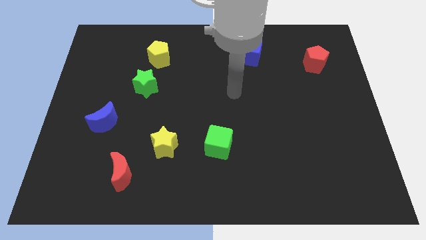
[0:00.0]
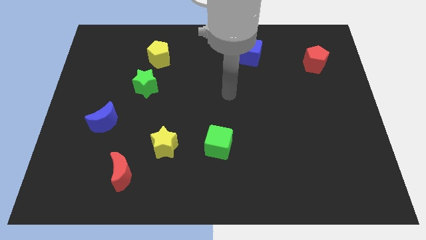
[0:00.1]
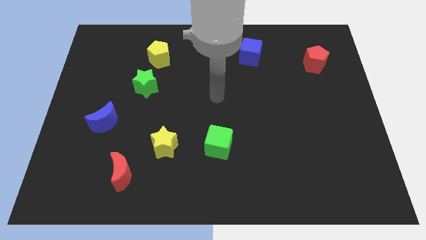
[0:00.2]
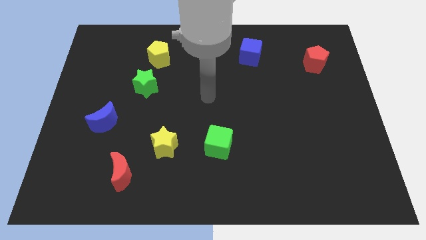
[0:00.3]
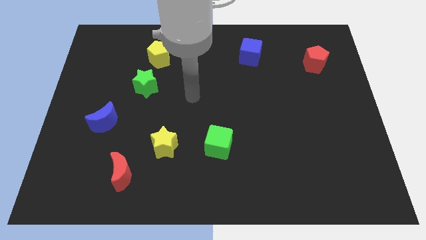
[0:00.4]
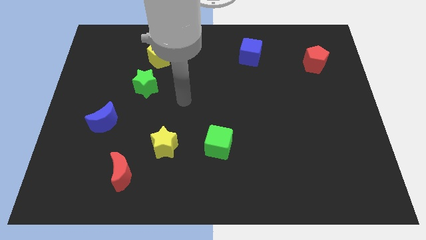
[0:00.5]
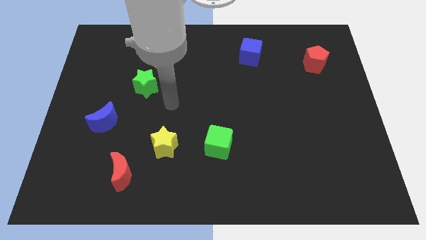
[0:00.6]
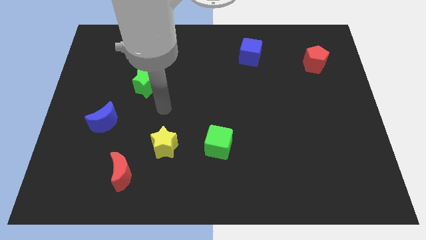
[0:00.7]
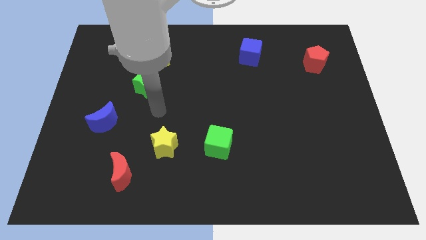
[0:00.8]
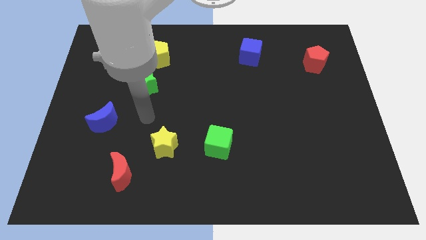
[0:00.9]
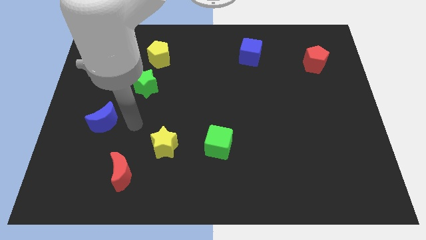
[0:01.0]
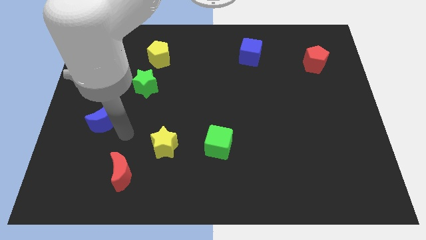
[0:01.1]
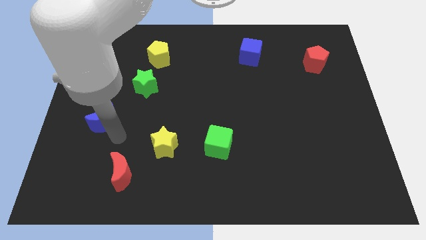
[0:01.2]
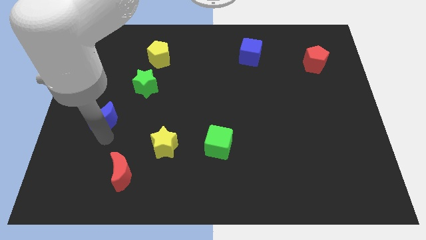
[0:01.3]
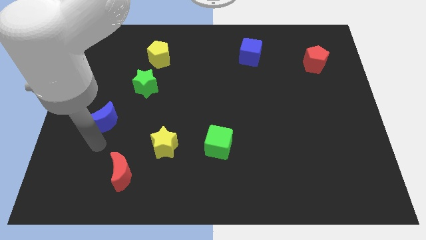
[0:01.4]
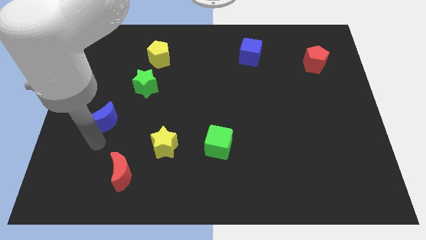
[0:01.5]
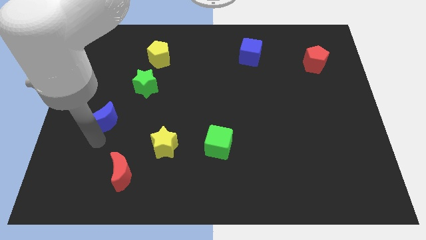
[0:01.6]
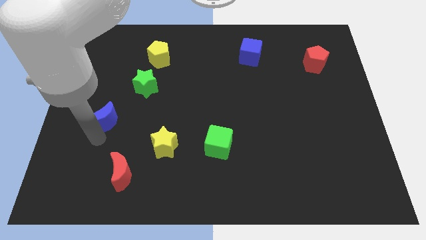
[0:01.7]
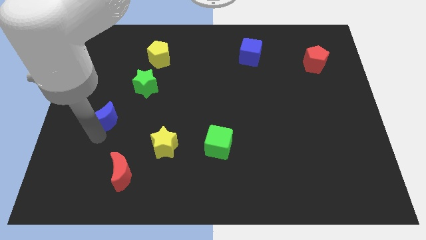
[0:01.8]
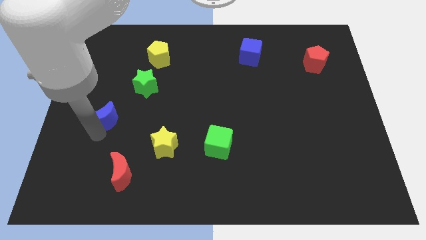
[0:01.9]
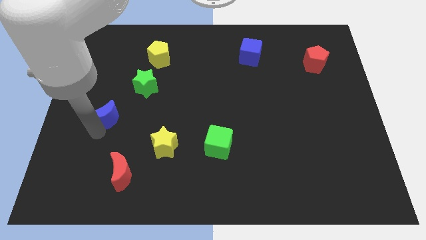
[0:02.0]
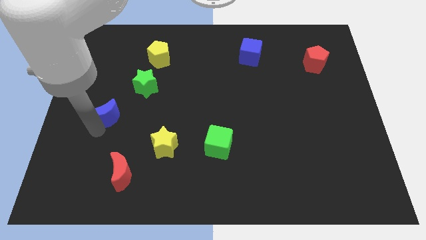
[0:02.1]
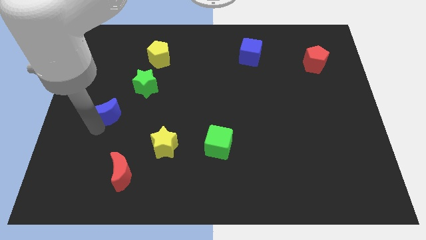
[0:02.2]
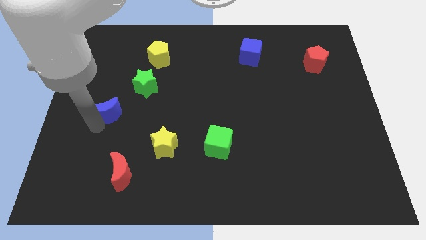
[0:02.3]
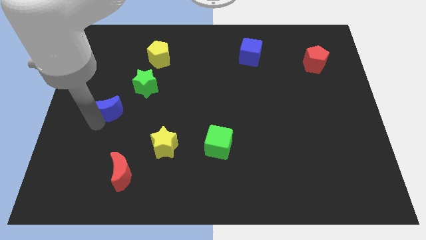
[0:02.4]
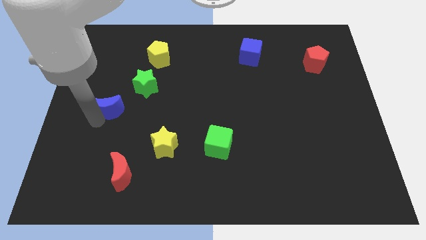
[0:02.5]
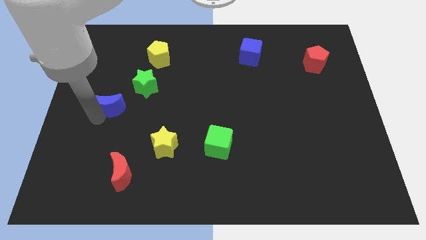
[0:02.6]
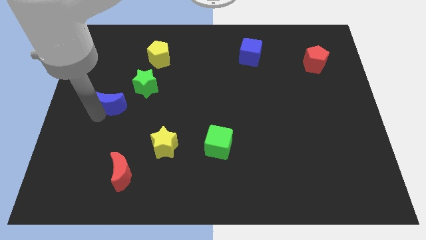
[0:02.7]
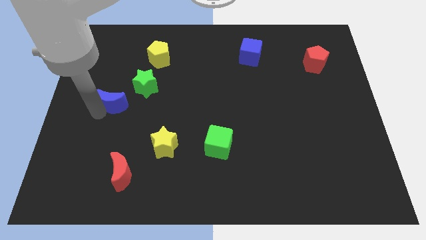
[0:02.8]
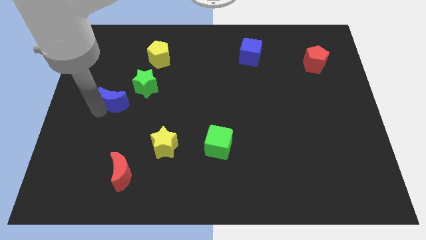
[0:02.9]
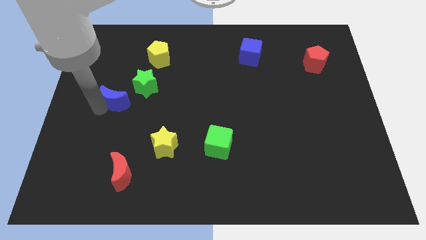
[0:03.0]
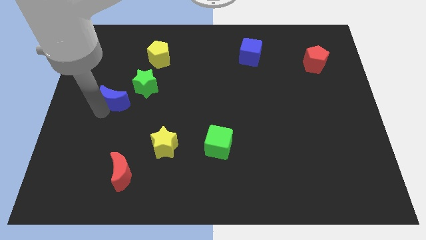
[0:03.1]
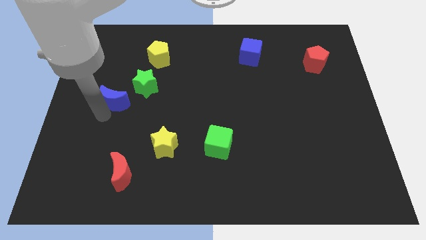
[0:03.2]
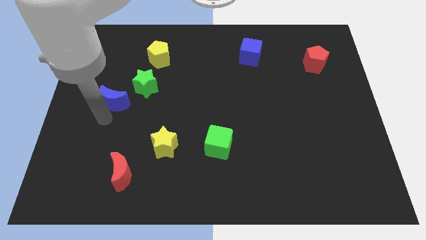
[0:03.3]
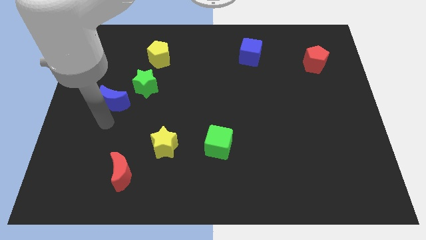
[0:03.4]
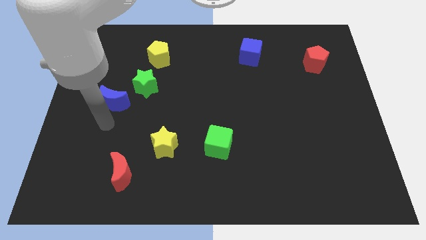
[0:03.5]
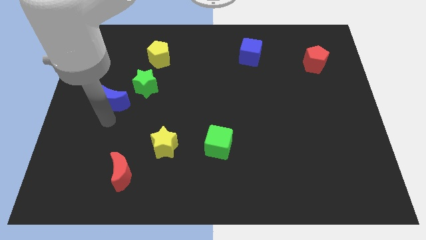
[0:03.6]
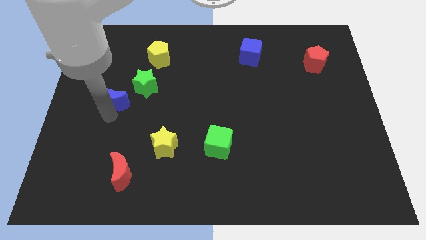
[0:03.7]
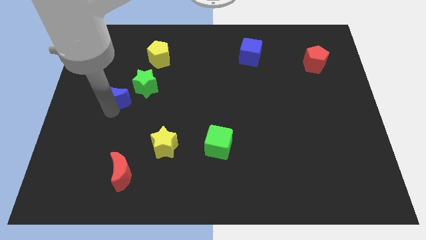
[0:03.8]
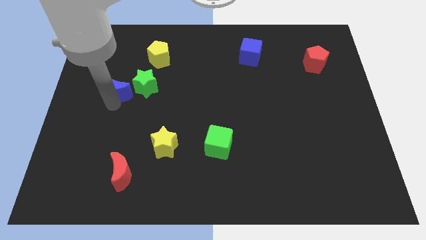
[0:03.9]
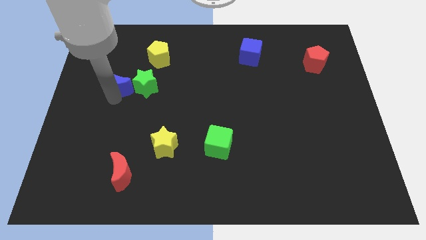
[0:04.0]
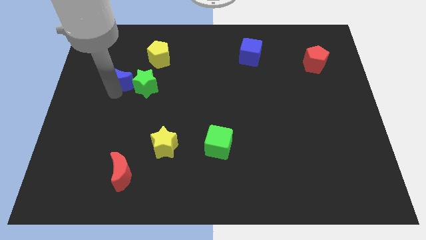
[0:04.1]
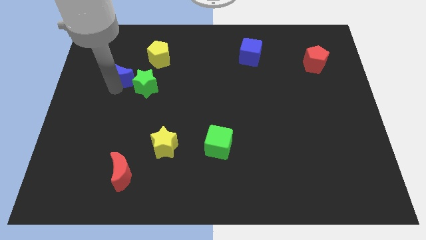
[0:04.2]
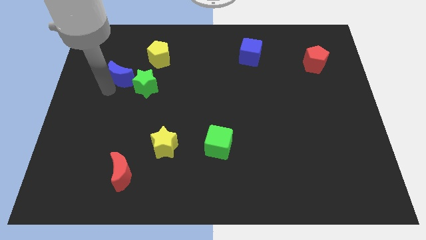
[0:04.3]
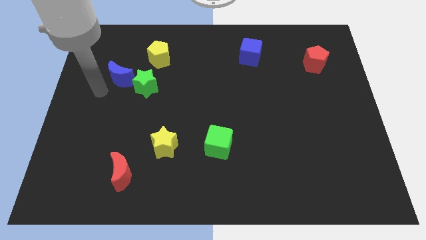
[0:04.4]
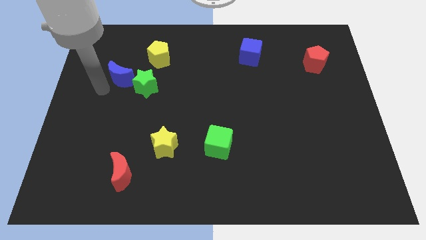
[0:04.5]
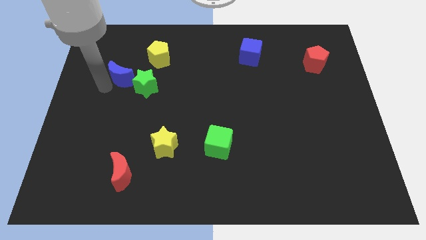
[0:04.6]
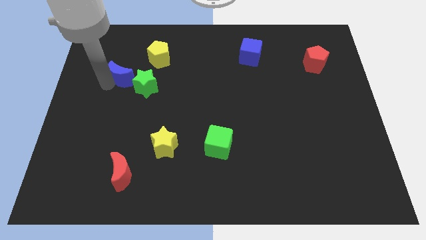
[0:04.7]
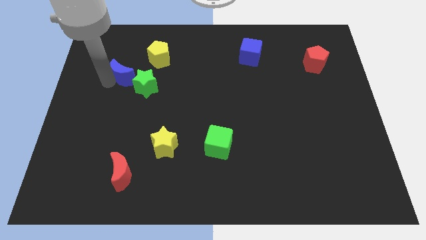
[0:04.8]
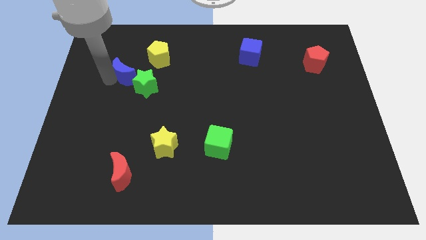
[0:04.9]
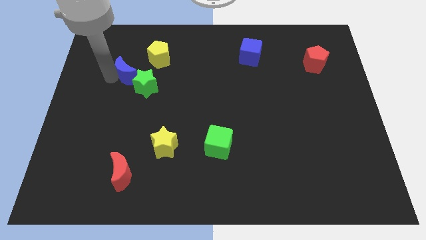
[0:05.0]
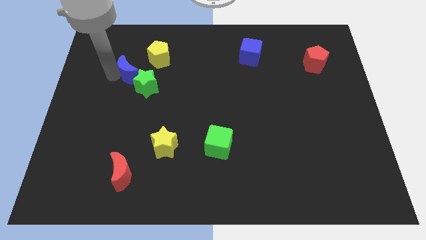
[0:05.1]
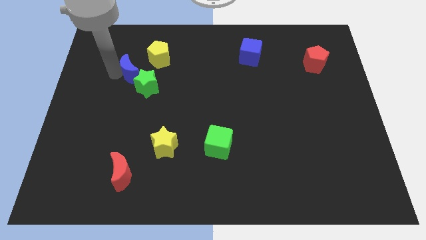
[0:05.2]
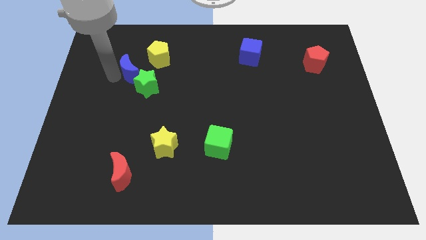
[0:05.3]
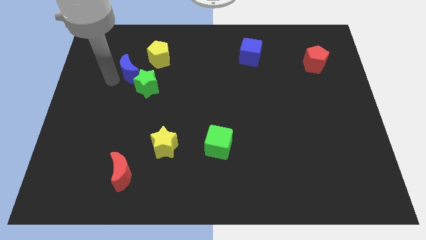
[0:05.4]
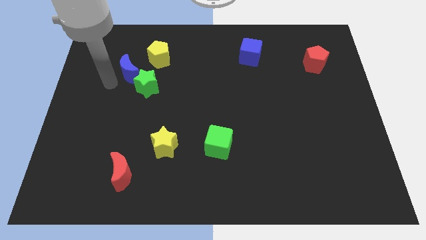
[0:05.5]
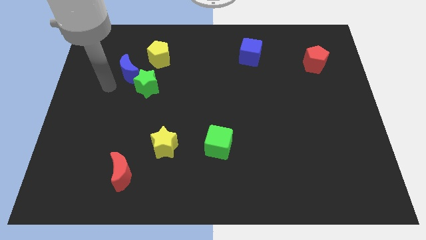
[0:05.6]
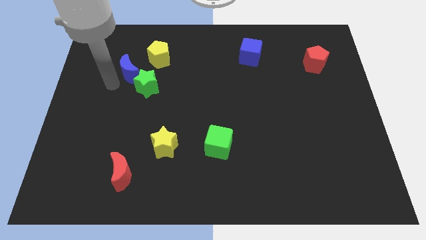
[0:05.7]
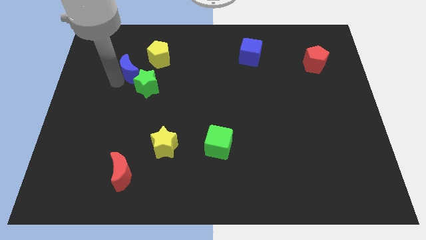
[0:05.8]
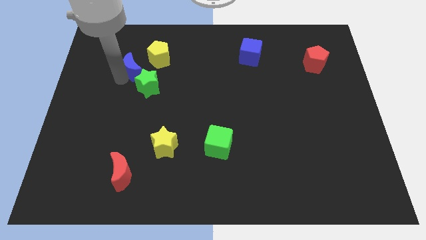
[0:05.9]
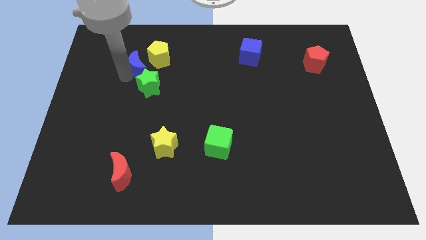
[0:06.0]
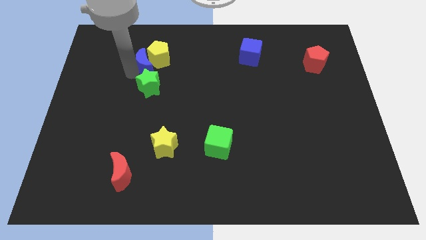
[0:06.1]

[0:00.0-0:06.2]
put the blue moon next to the yellow pentagon
